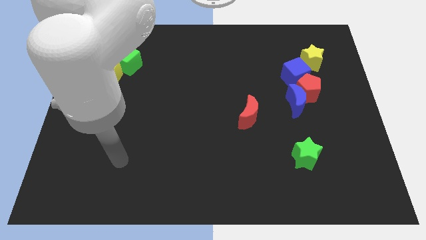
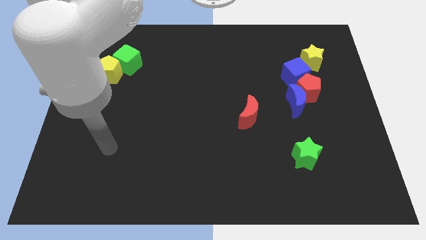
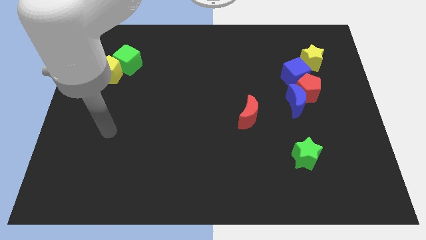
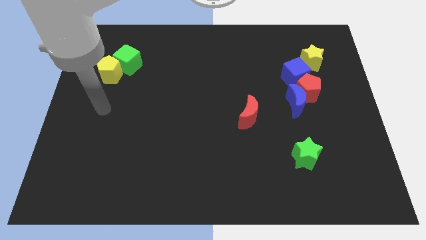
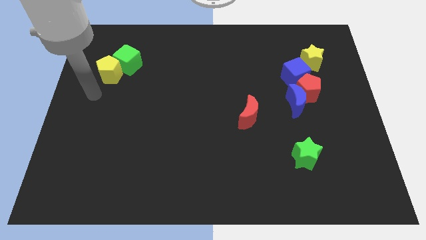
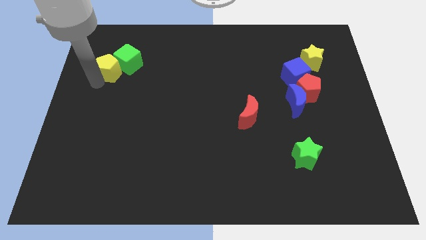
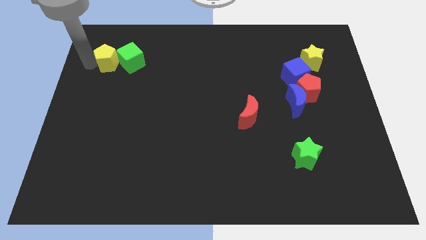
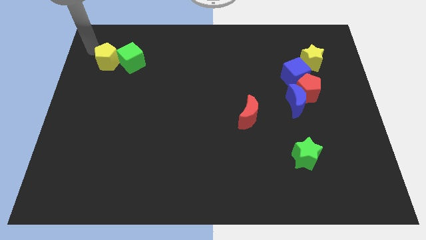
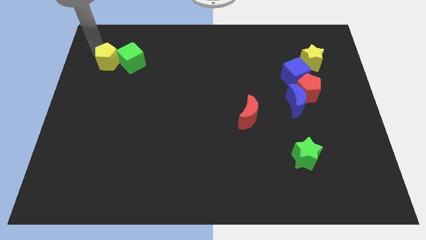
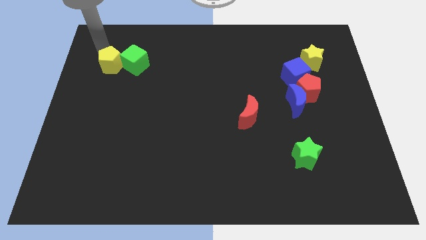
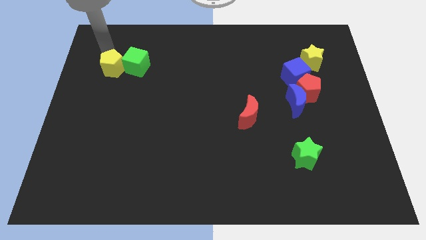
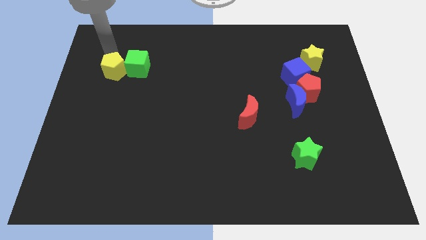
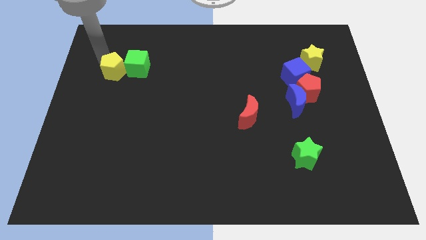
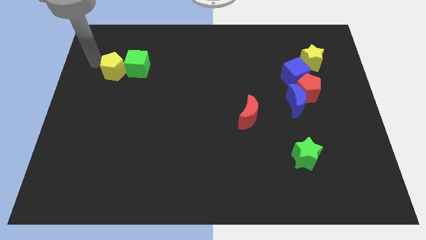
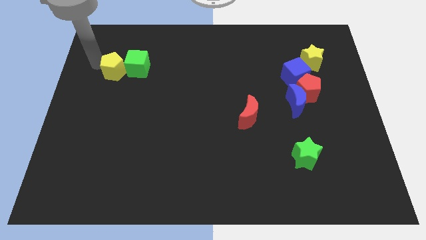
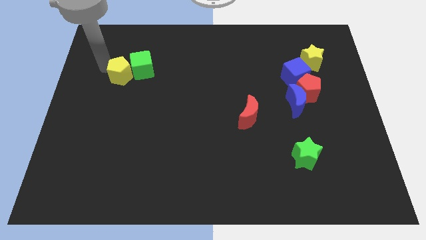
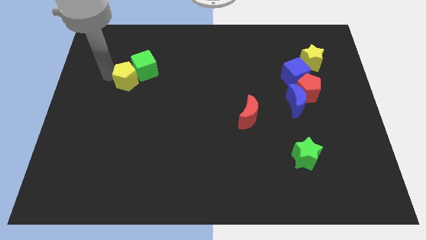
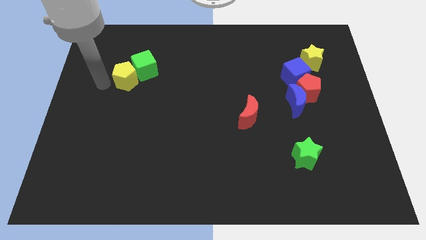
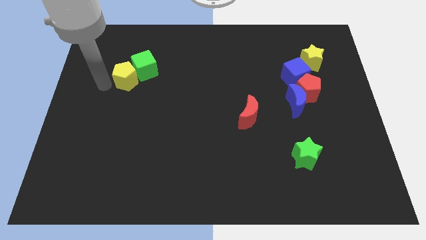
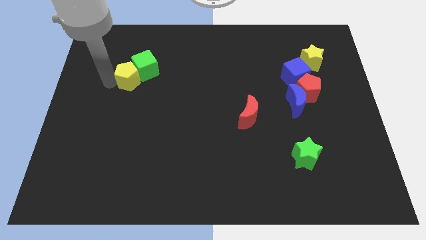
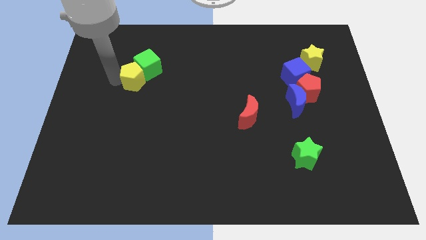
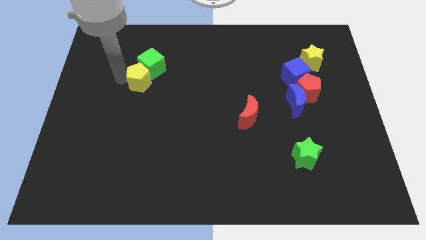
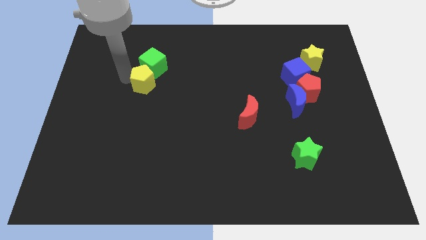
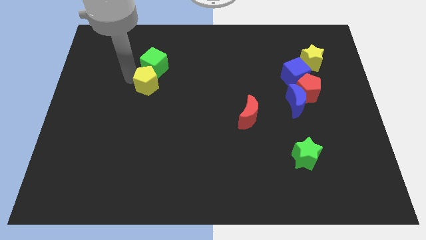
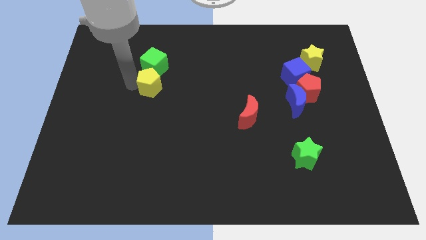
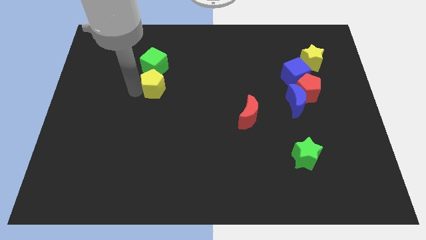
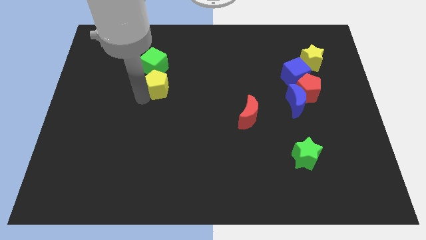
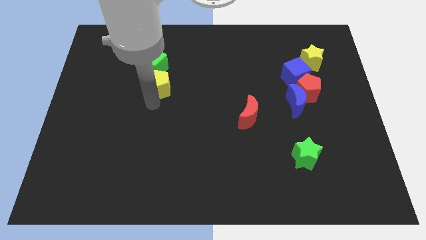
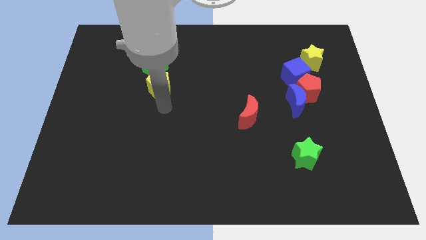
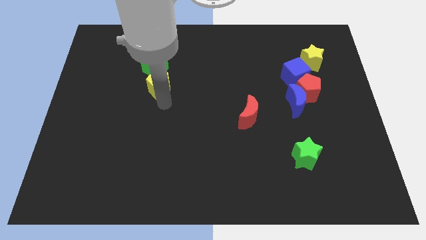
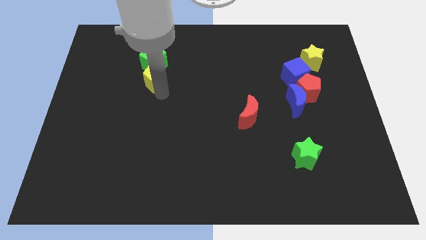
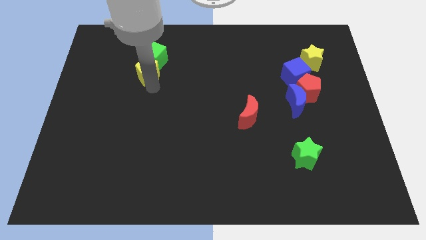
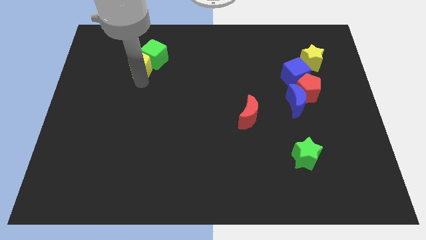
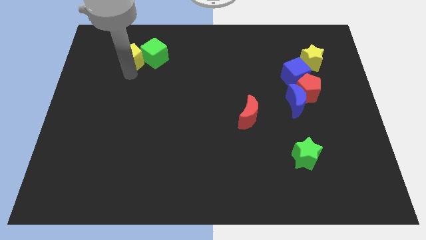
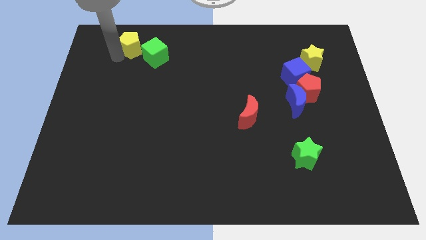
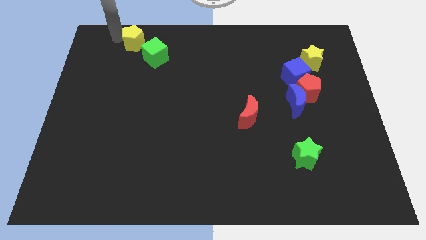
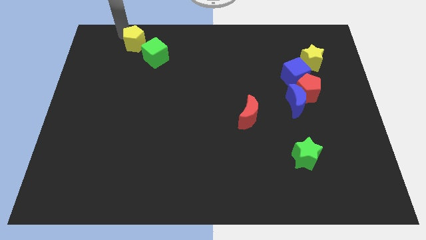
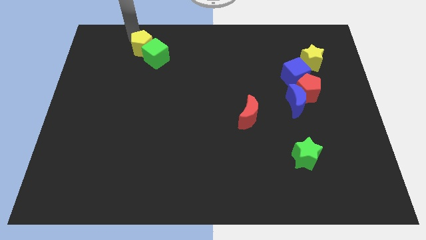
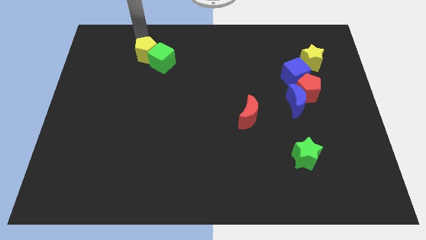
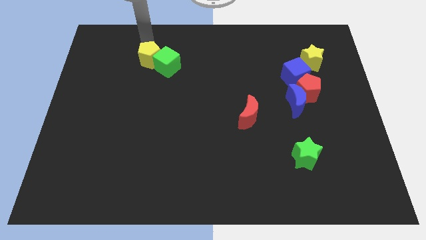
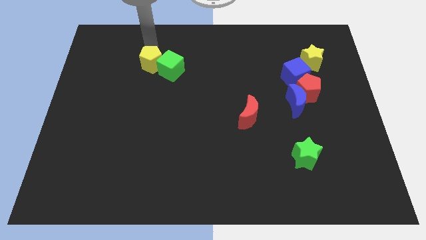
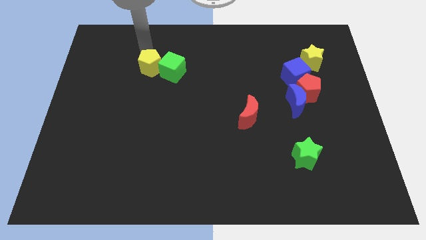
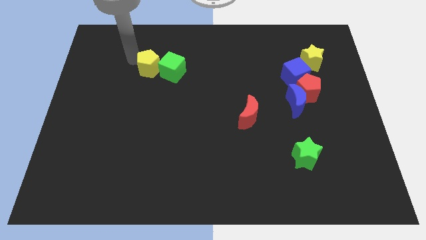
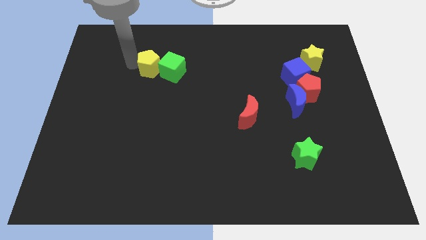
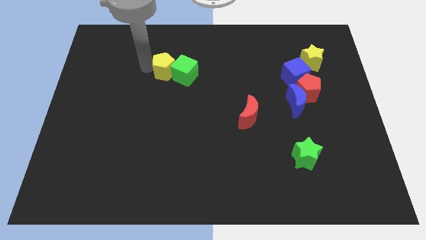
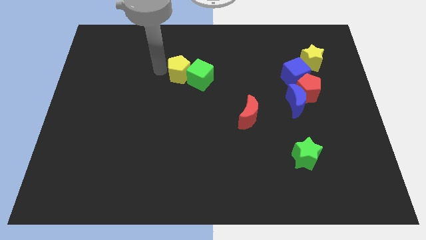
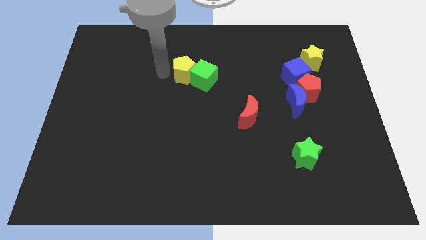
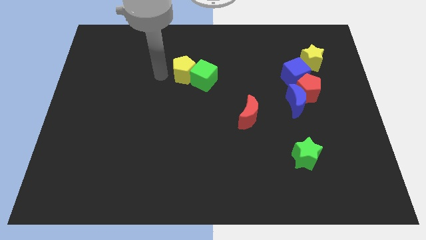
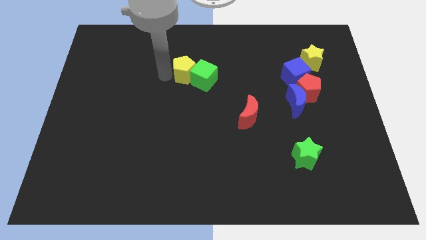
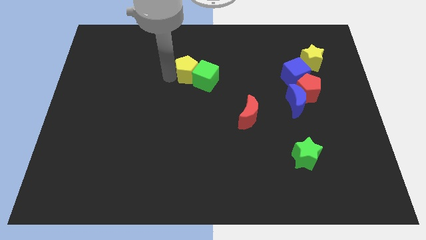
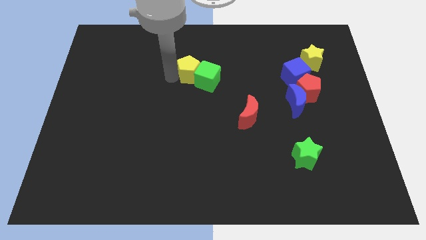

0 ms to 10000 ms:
push the yellow pentagon right

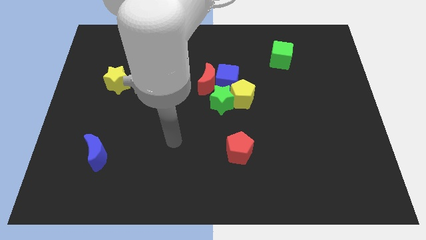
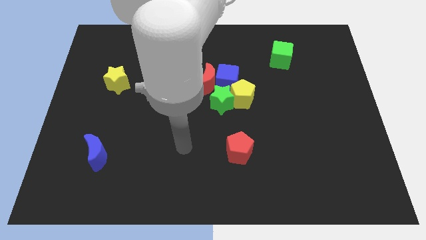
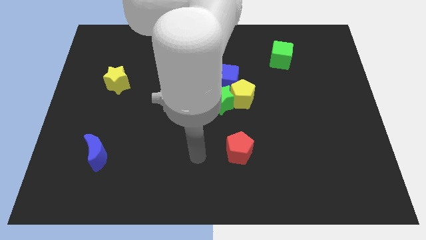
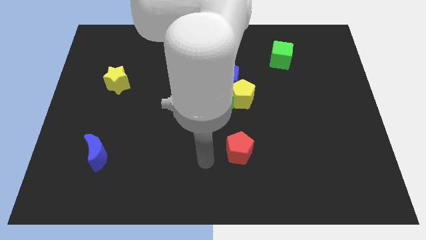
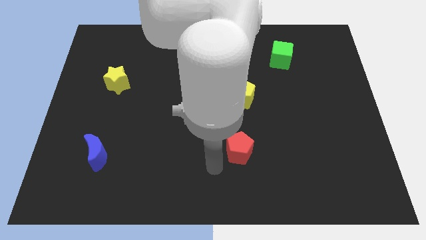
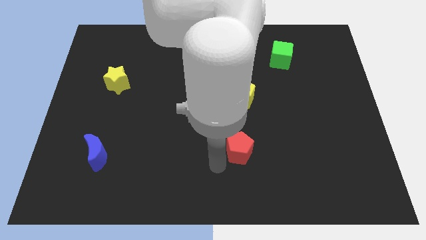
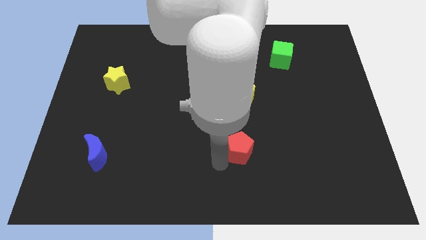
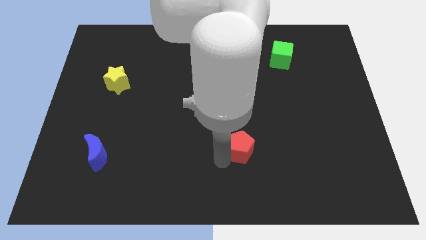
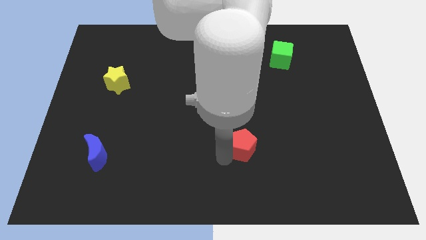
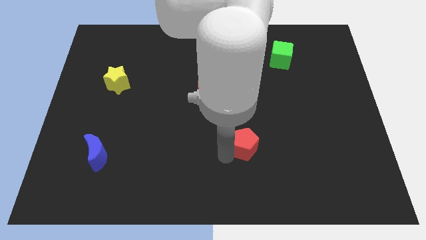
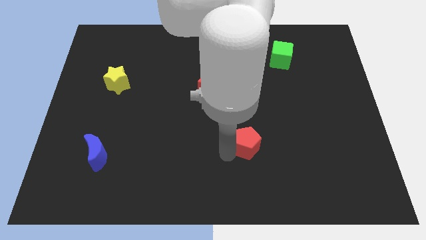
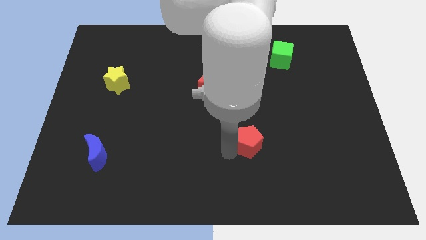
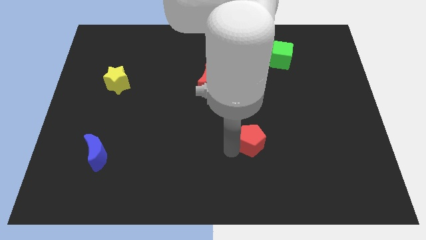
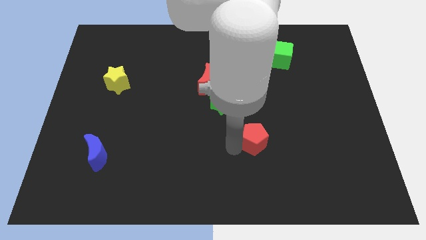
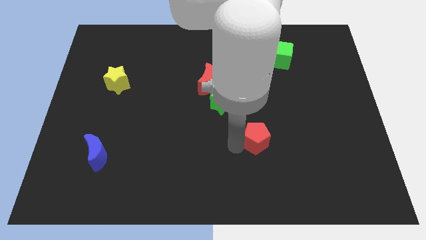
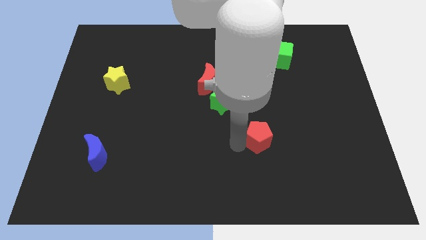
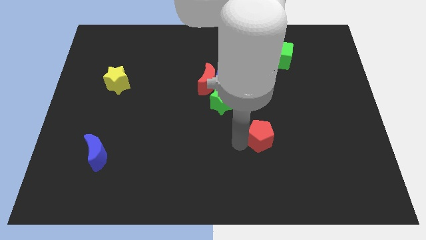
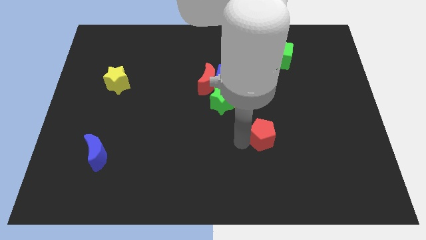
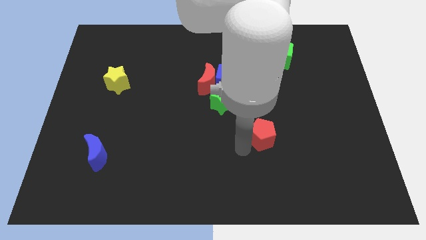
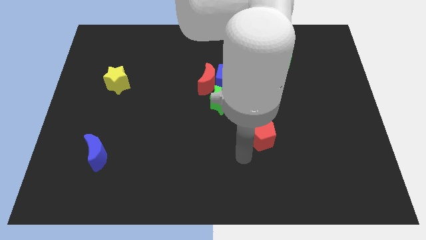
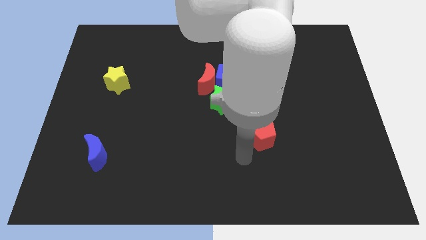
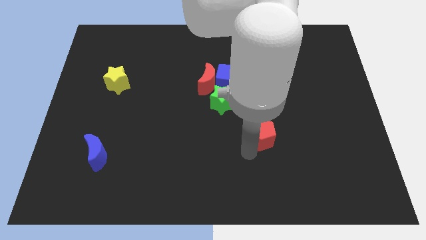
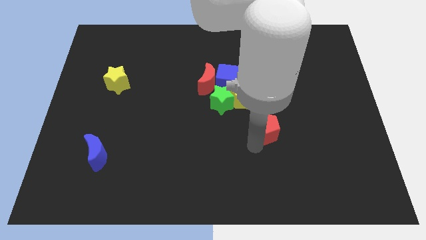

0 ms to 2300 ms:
slightly push the red pentagon up and right

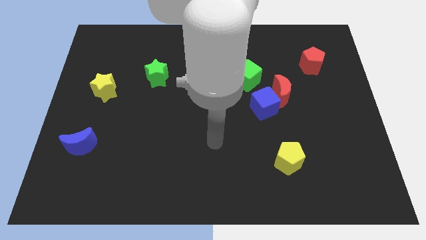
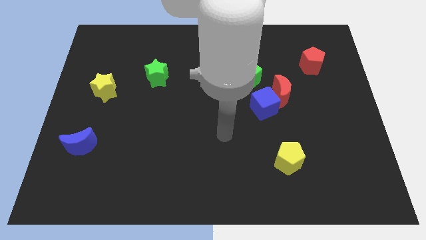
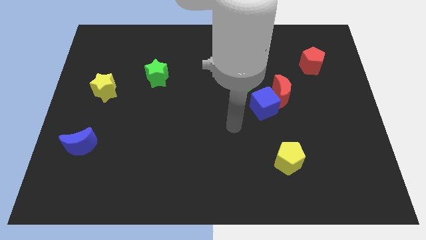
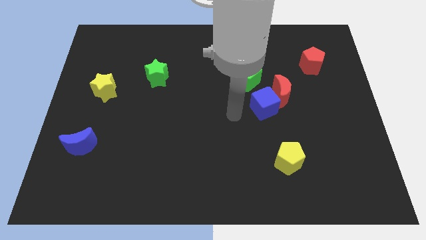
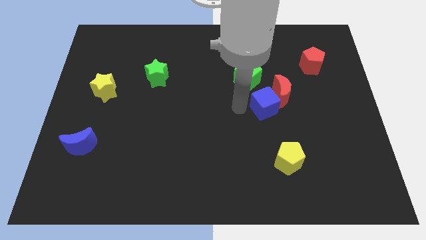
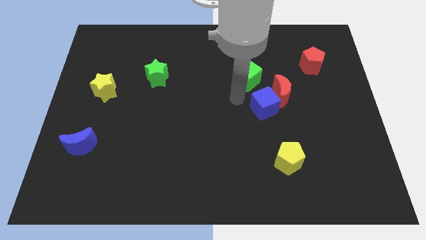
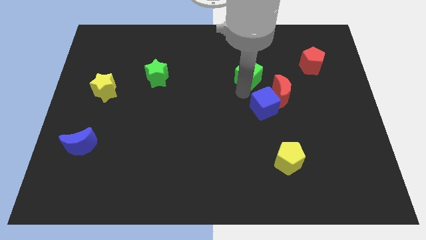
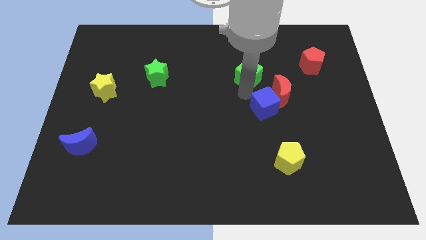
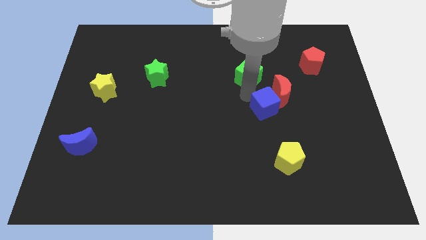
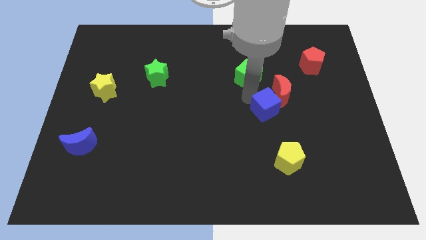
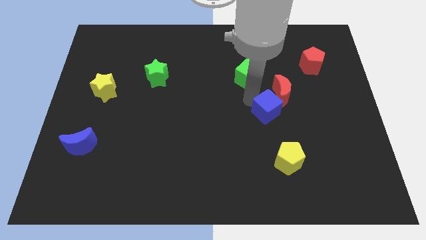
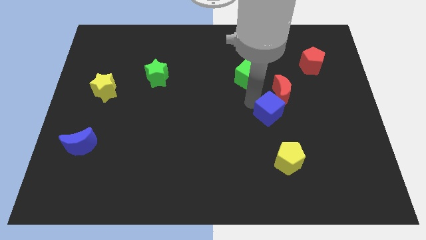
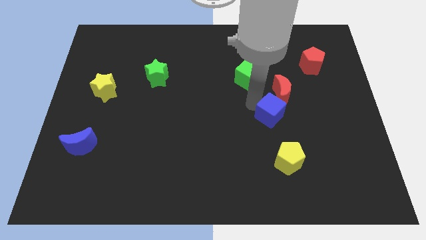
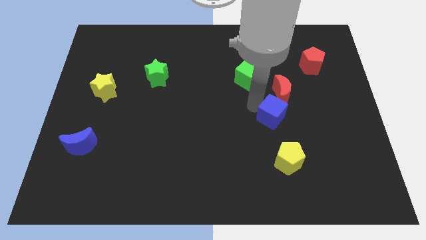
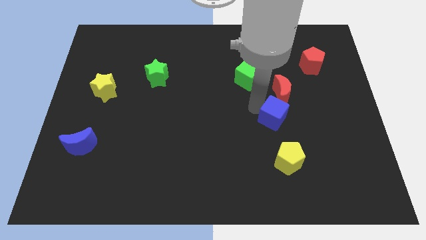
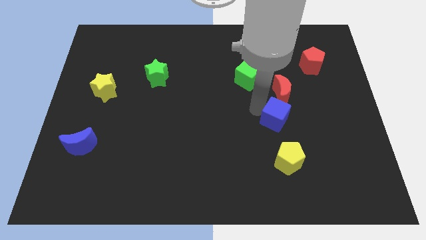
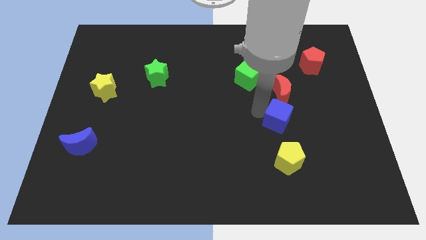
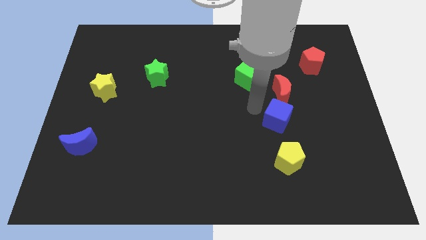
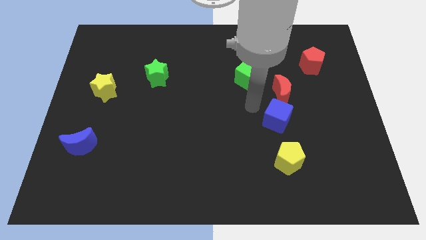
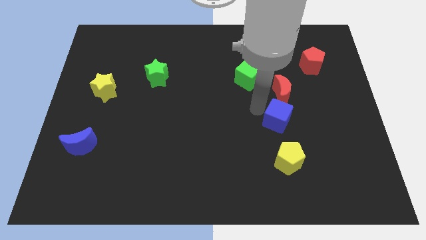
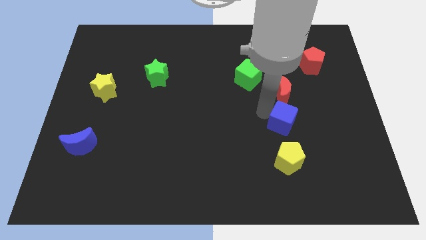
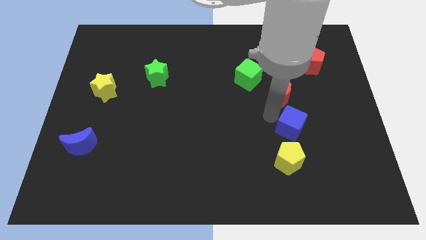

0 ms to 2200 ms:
move the blue cube a little downwards and then right
